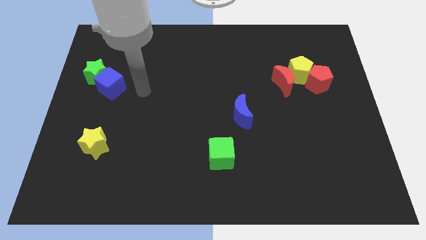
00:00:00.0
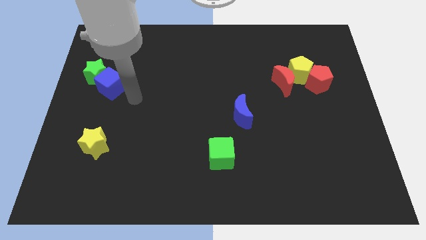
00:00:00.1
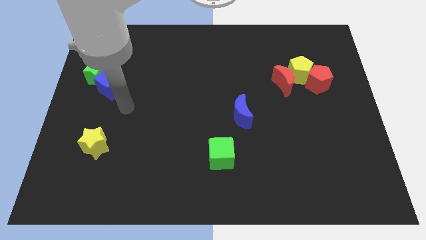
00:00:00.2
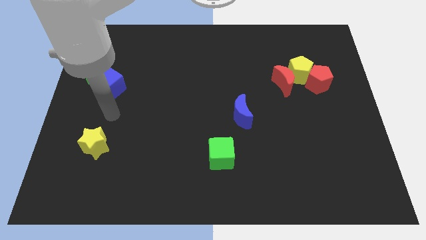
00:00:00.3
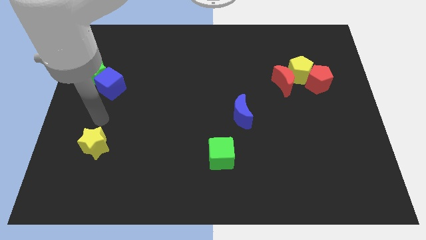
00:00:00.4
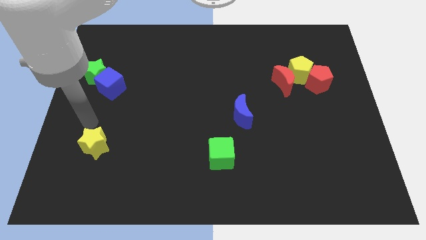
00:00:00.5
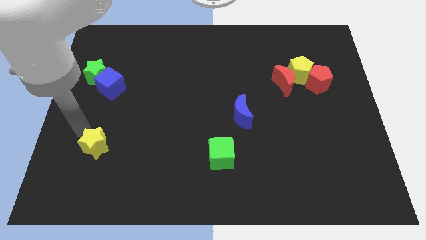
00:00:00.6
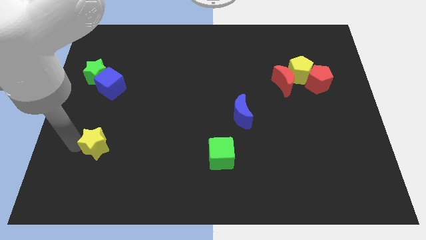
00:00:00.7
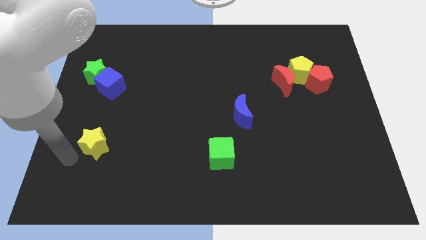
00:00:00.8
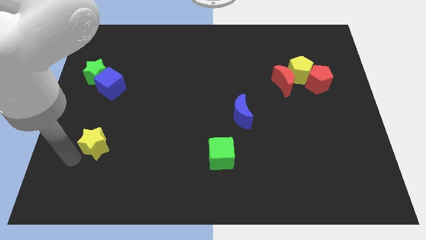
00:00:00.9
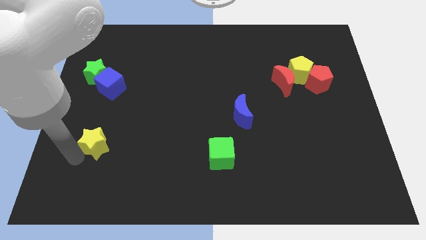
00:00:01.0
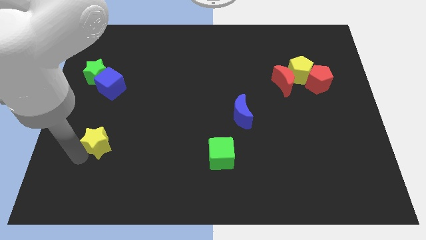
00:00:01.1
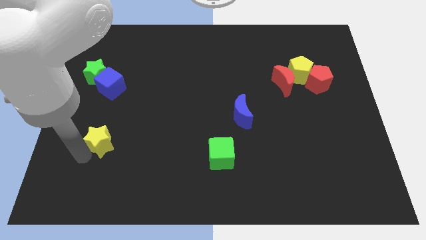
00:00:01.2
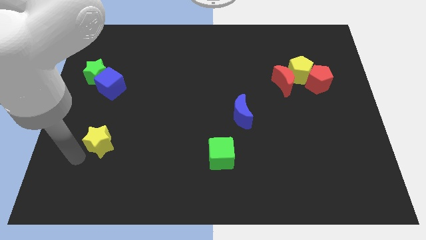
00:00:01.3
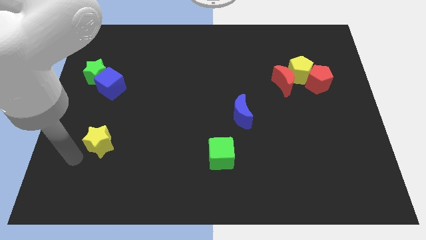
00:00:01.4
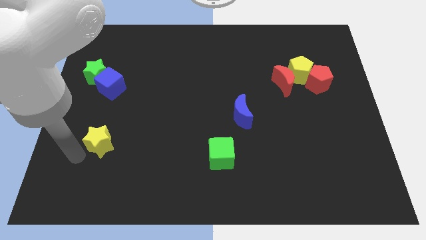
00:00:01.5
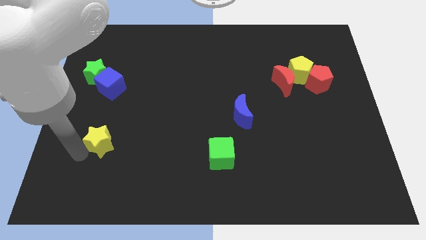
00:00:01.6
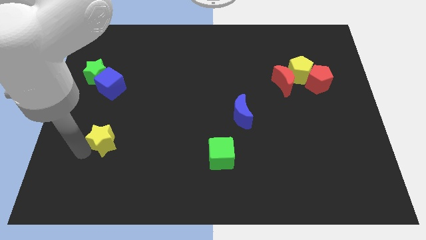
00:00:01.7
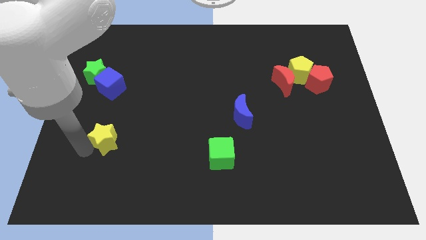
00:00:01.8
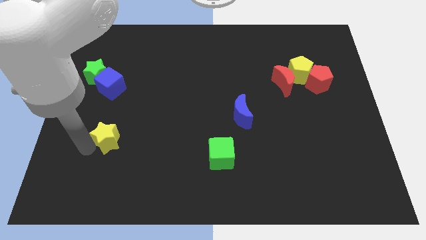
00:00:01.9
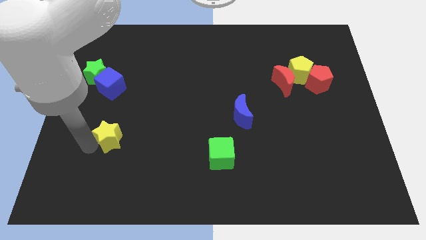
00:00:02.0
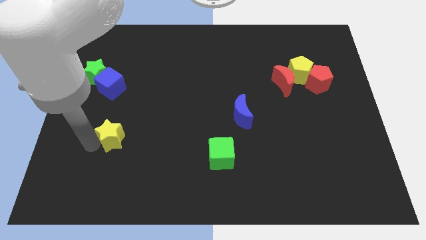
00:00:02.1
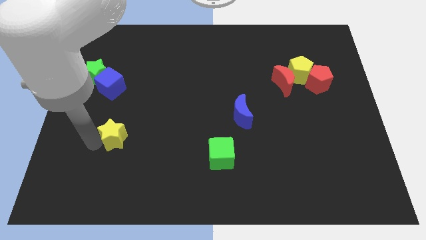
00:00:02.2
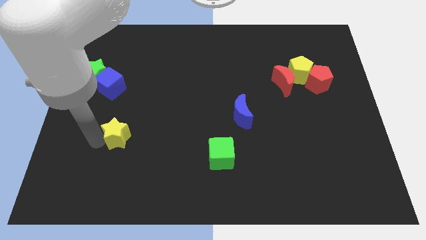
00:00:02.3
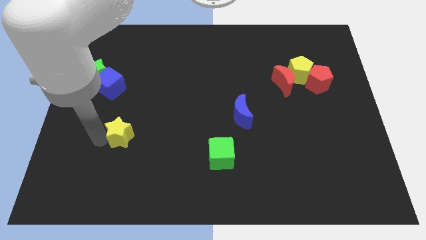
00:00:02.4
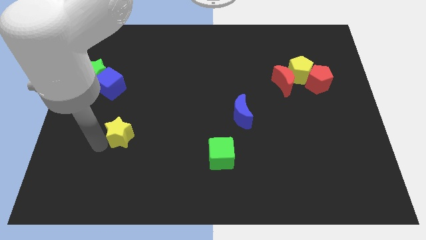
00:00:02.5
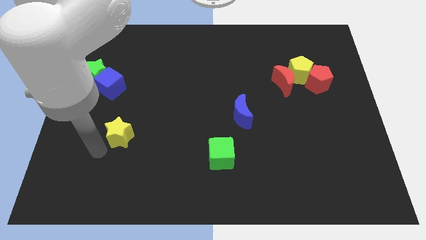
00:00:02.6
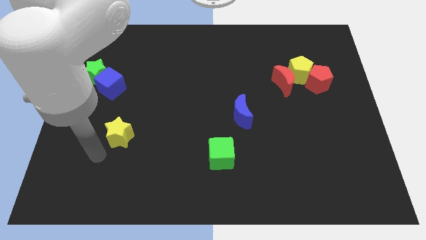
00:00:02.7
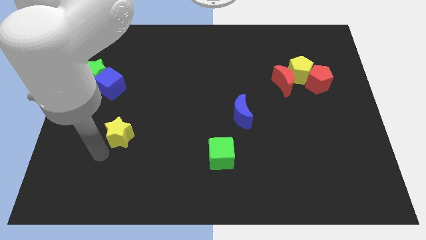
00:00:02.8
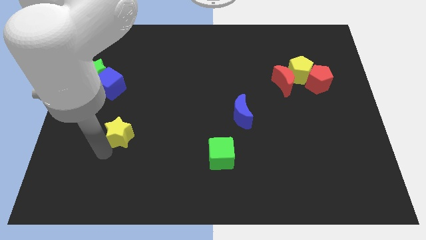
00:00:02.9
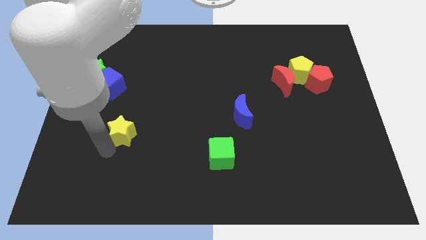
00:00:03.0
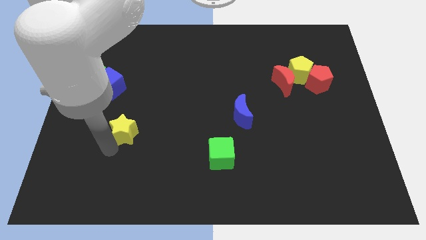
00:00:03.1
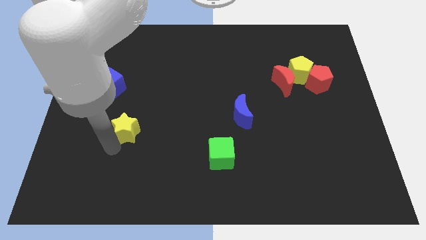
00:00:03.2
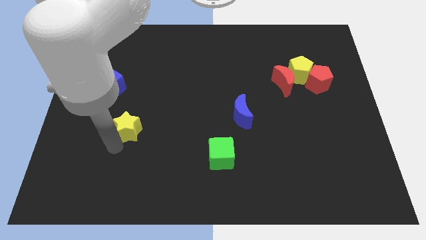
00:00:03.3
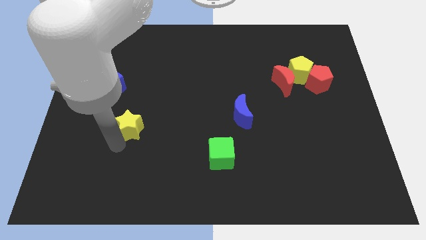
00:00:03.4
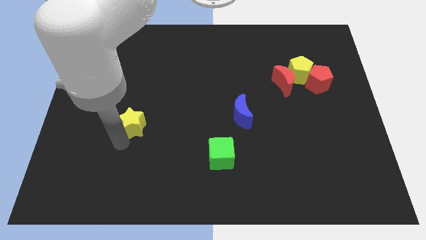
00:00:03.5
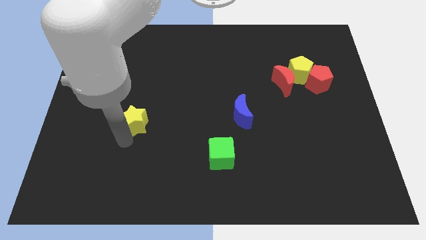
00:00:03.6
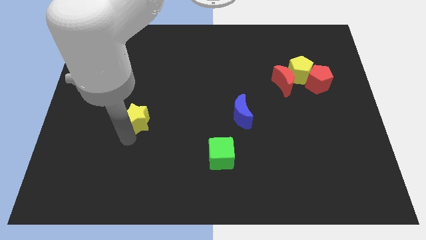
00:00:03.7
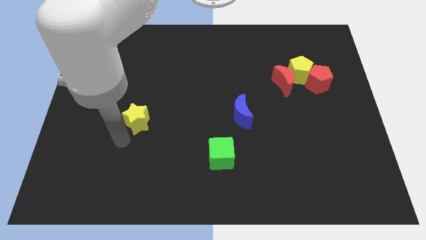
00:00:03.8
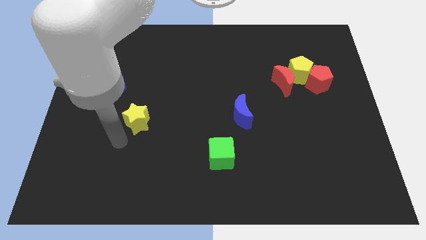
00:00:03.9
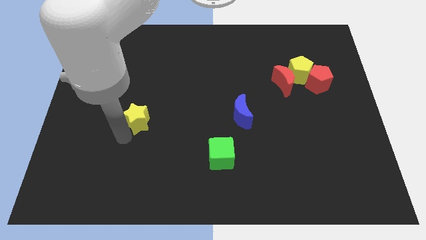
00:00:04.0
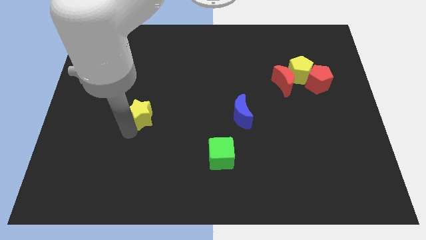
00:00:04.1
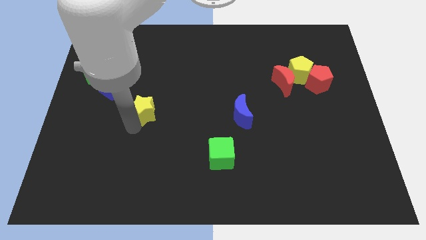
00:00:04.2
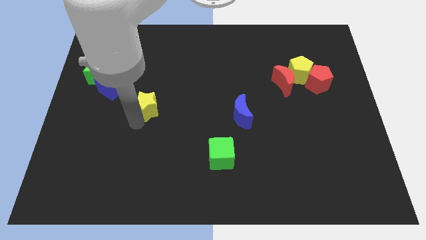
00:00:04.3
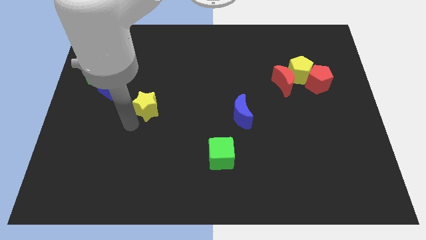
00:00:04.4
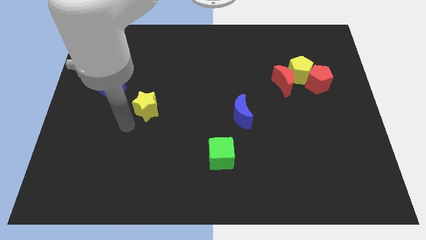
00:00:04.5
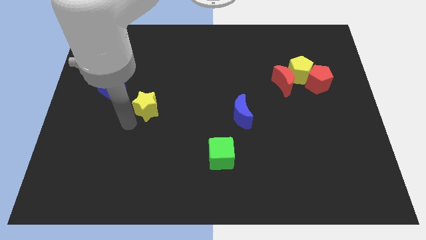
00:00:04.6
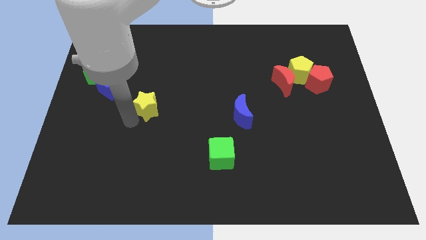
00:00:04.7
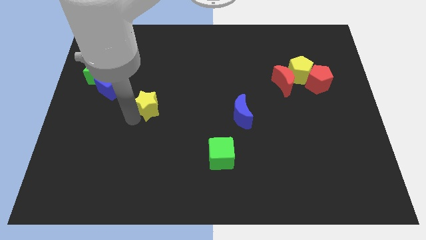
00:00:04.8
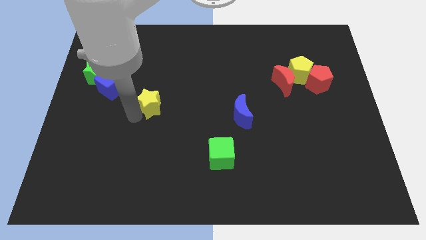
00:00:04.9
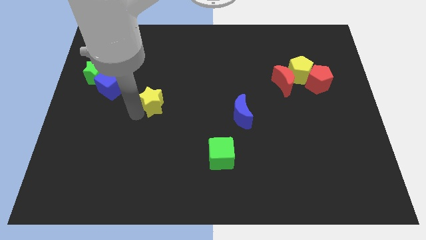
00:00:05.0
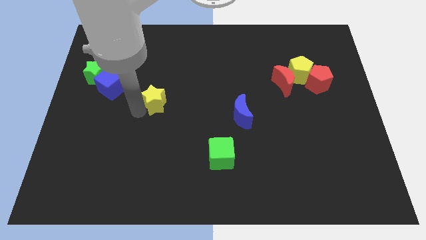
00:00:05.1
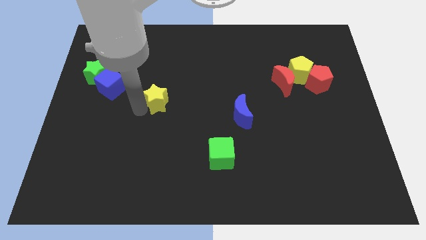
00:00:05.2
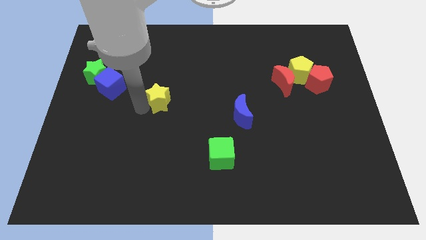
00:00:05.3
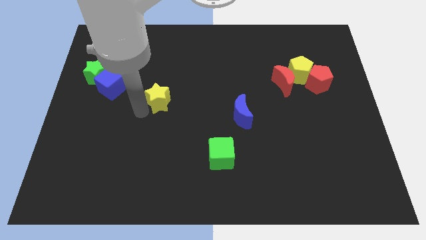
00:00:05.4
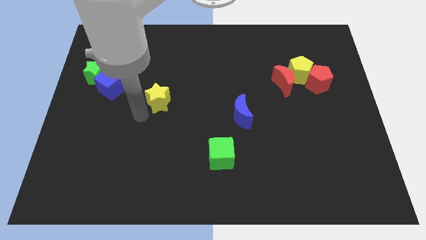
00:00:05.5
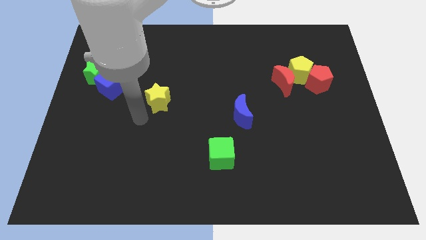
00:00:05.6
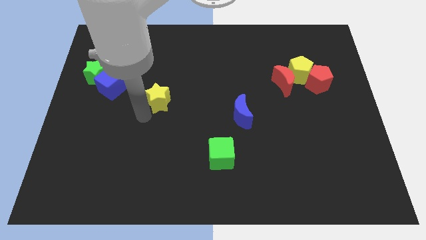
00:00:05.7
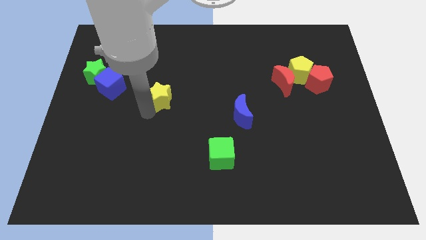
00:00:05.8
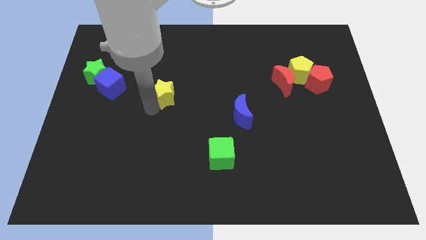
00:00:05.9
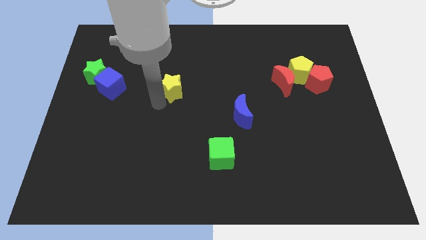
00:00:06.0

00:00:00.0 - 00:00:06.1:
move the yellow star up and to the right

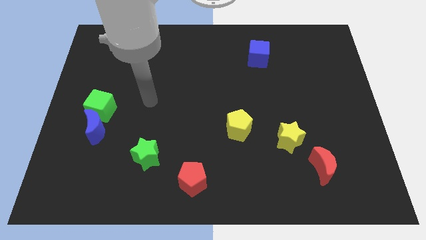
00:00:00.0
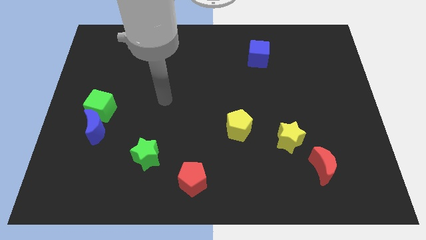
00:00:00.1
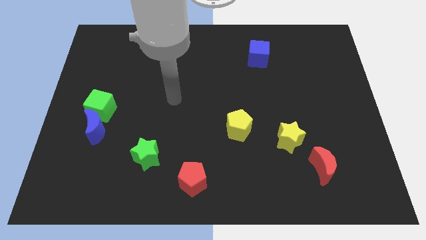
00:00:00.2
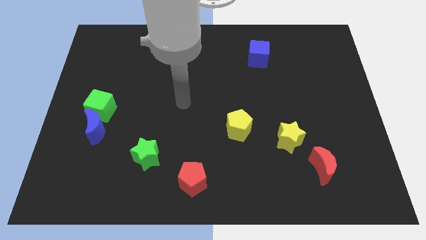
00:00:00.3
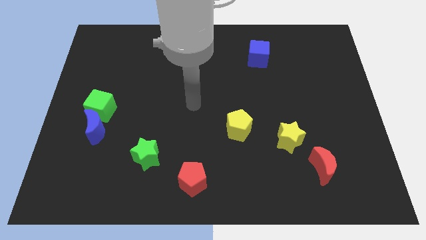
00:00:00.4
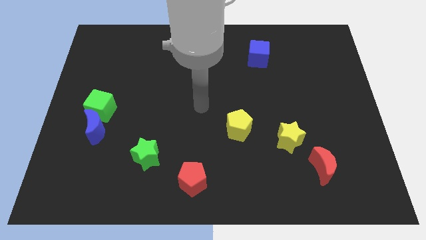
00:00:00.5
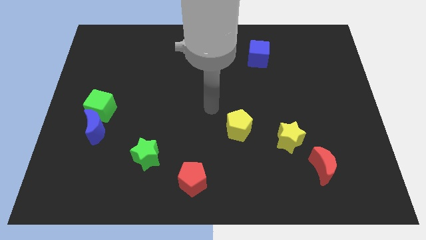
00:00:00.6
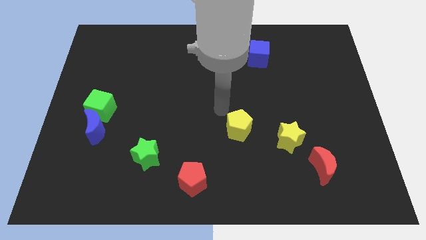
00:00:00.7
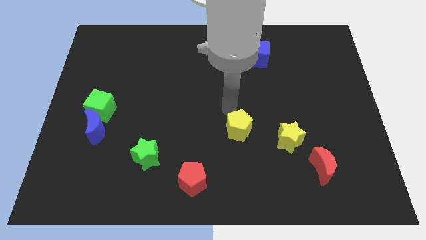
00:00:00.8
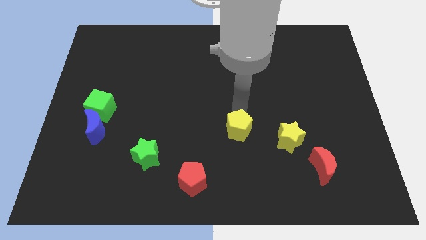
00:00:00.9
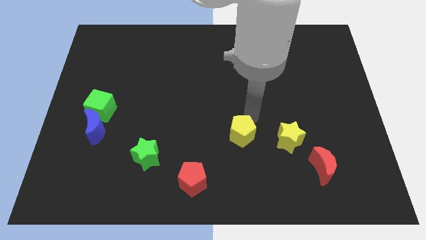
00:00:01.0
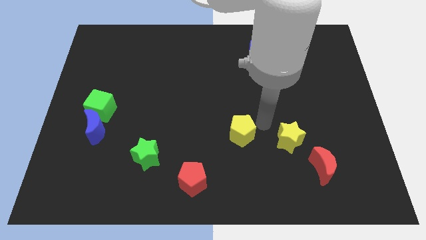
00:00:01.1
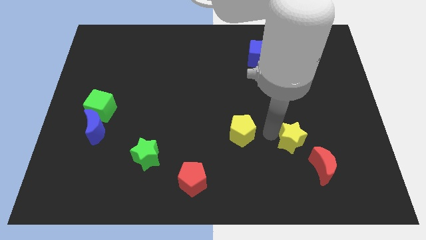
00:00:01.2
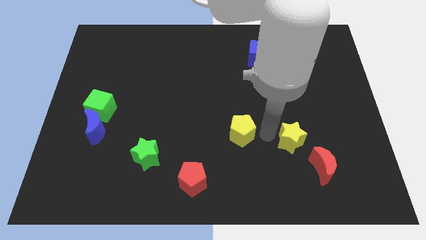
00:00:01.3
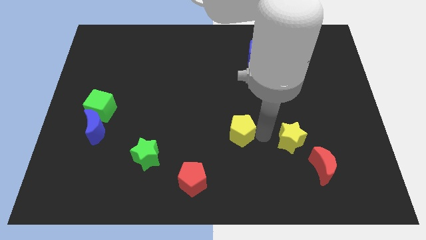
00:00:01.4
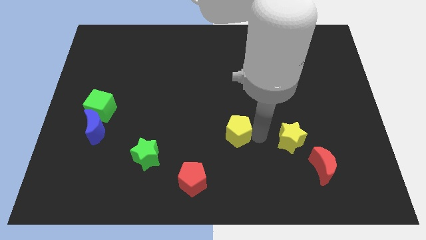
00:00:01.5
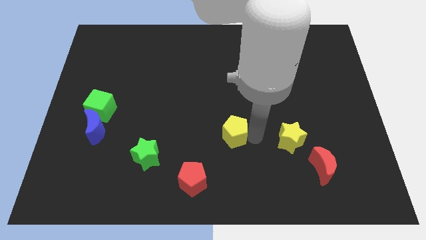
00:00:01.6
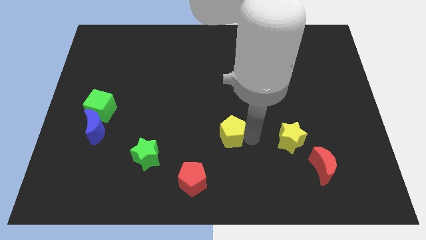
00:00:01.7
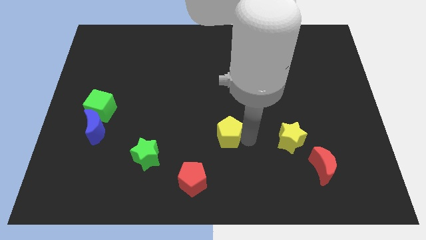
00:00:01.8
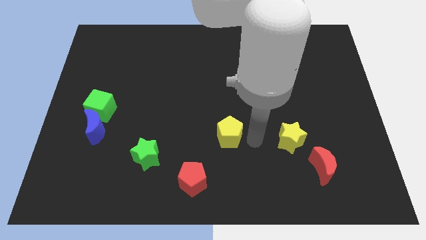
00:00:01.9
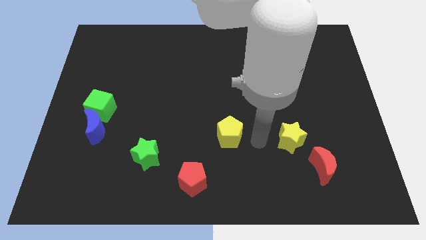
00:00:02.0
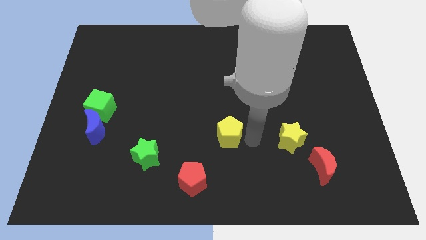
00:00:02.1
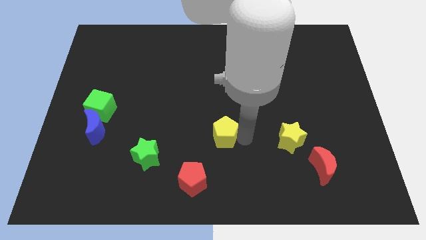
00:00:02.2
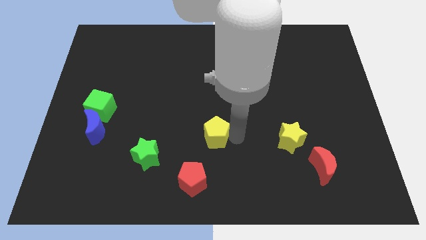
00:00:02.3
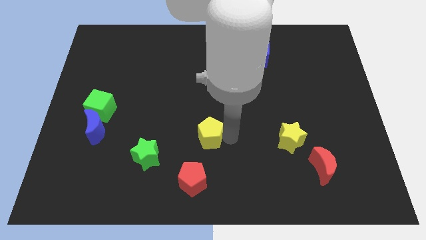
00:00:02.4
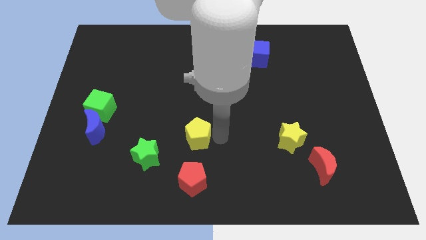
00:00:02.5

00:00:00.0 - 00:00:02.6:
push the yellow pentagon left slightly
